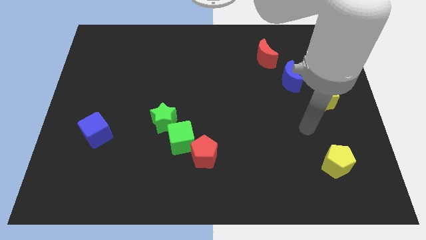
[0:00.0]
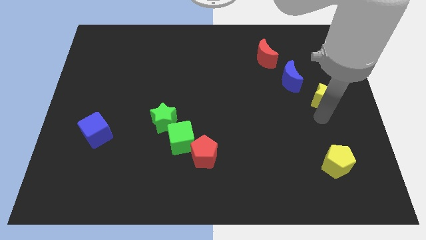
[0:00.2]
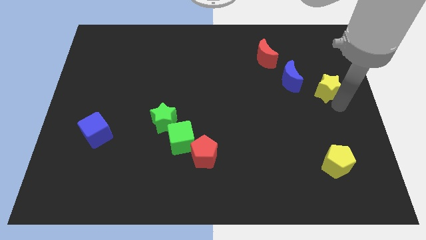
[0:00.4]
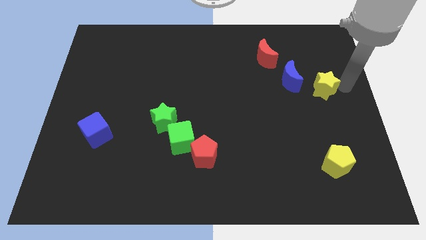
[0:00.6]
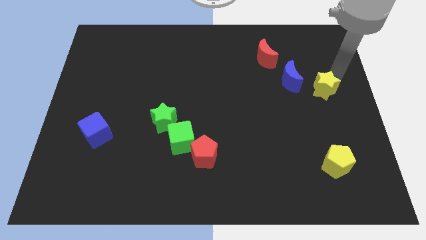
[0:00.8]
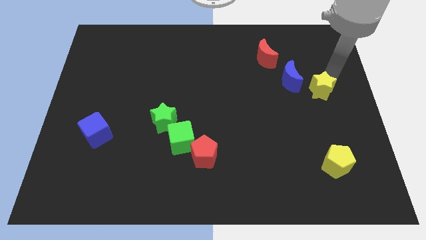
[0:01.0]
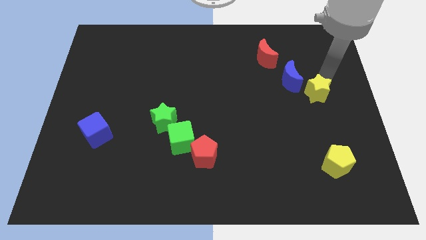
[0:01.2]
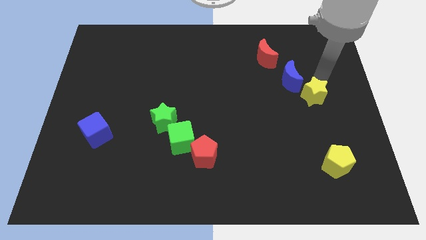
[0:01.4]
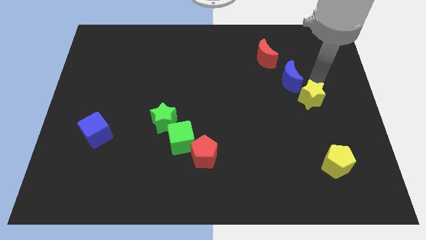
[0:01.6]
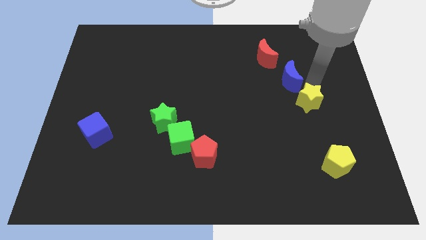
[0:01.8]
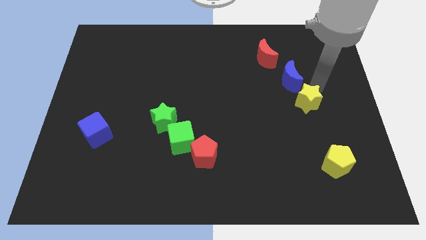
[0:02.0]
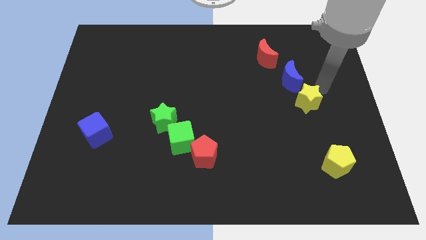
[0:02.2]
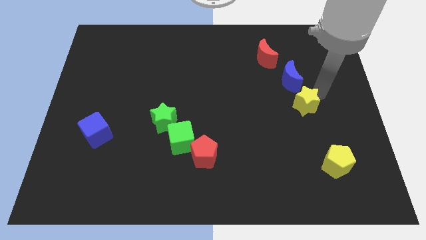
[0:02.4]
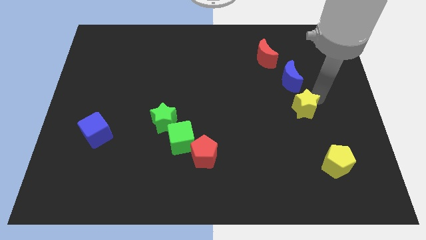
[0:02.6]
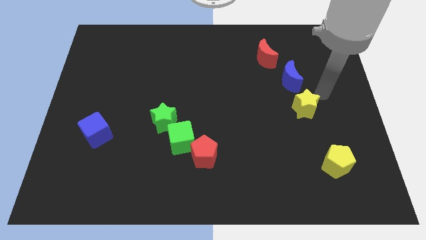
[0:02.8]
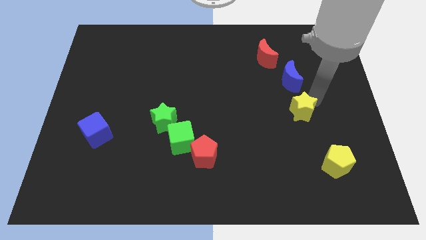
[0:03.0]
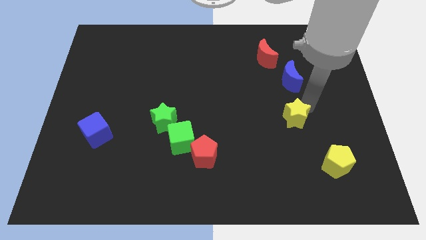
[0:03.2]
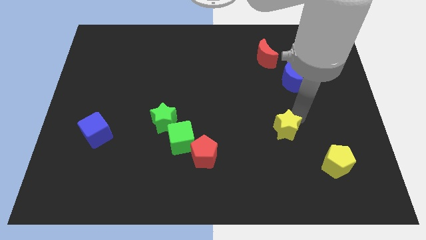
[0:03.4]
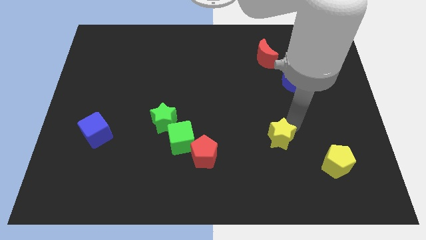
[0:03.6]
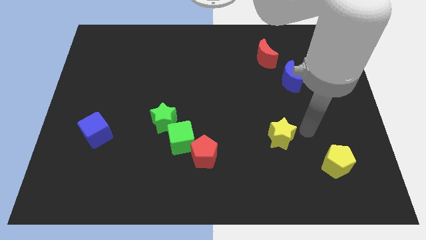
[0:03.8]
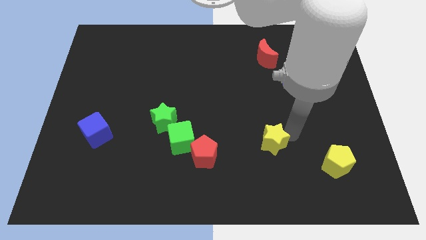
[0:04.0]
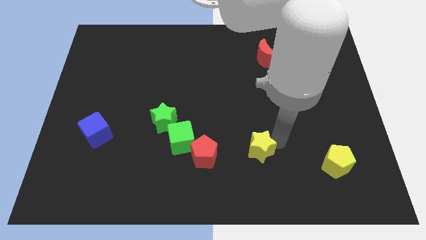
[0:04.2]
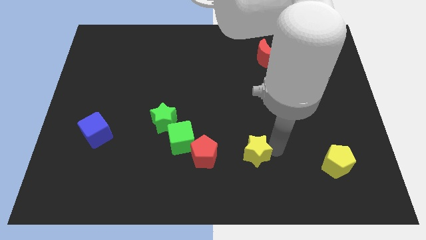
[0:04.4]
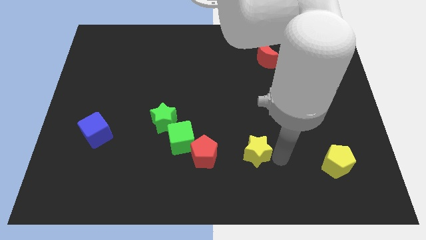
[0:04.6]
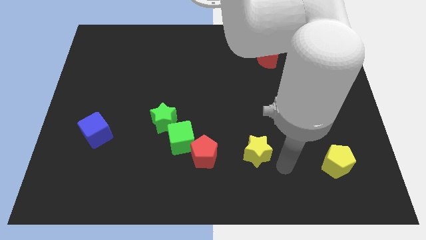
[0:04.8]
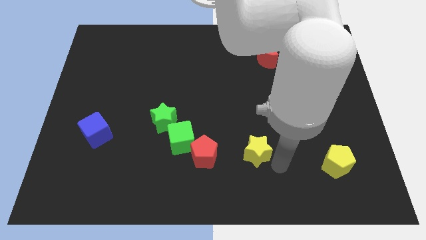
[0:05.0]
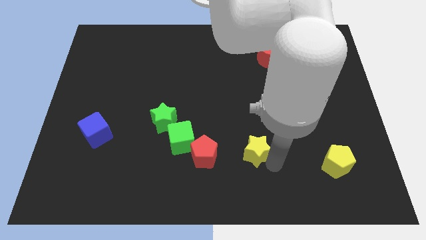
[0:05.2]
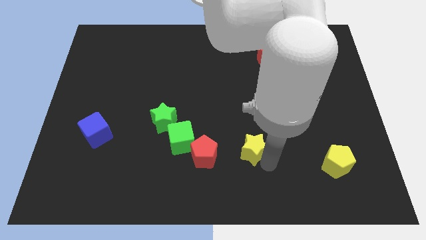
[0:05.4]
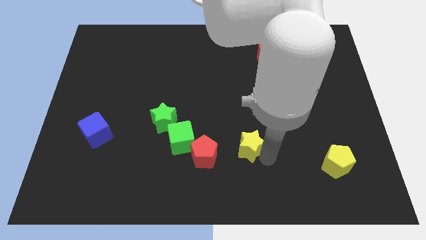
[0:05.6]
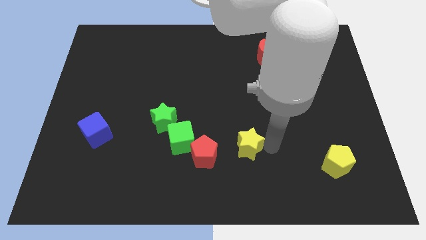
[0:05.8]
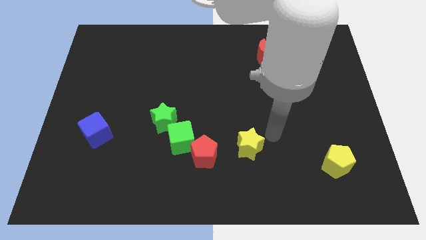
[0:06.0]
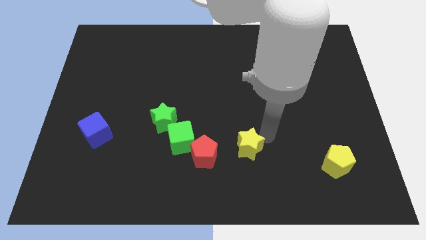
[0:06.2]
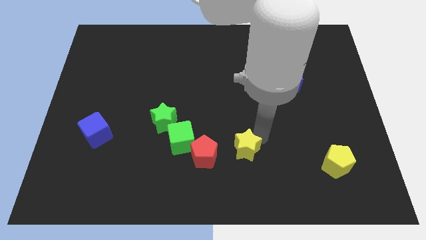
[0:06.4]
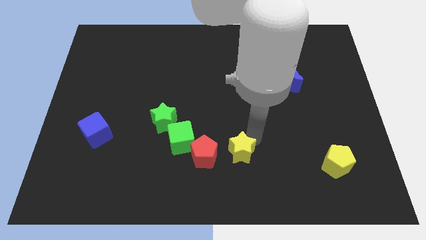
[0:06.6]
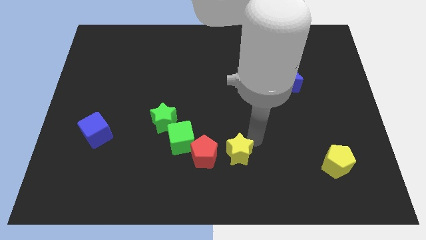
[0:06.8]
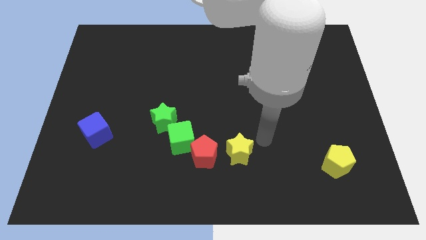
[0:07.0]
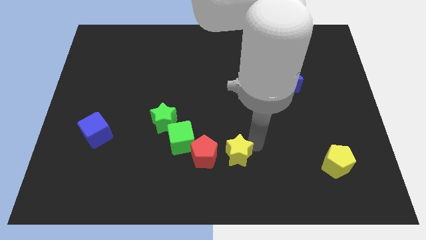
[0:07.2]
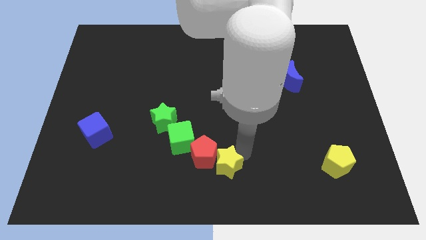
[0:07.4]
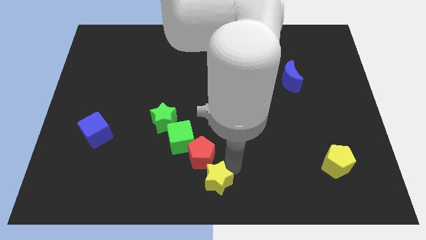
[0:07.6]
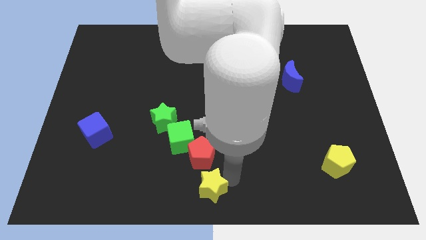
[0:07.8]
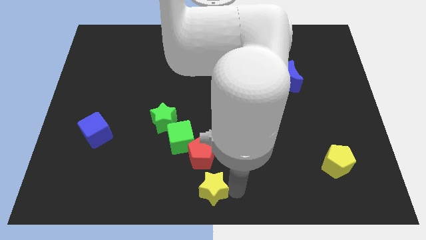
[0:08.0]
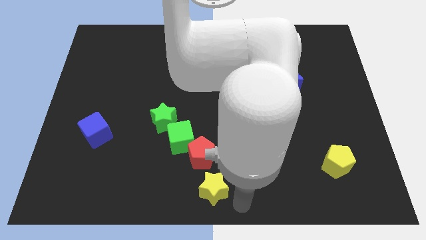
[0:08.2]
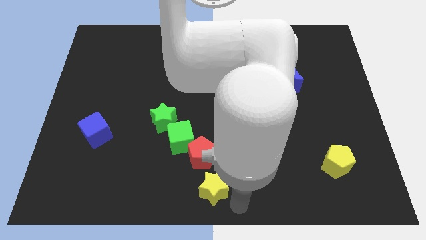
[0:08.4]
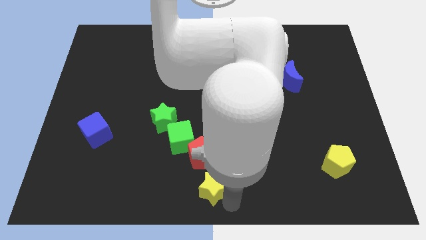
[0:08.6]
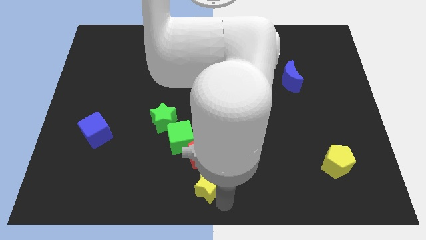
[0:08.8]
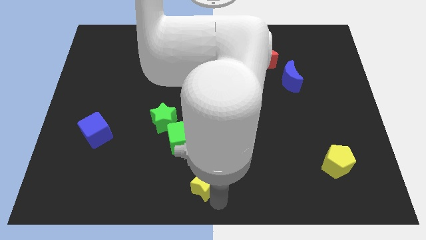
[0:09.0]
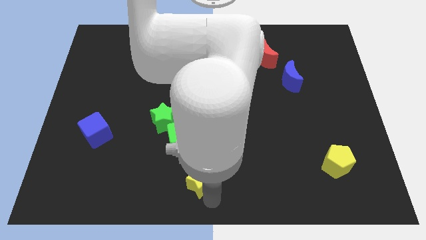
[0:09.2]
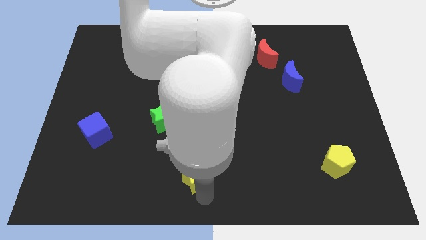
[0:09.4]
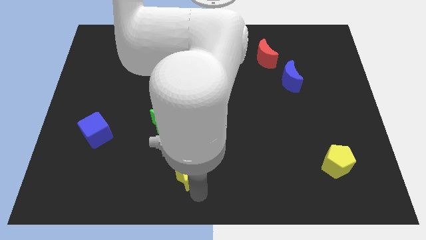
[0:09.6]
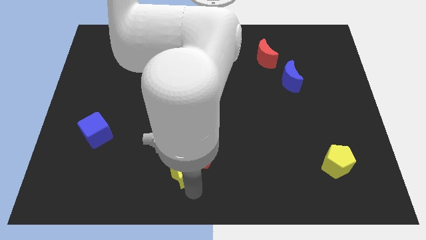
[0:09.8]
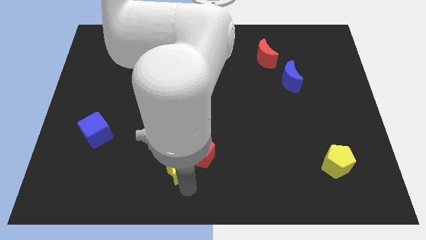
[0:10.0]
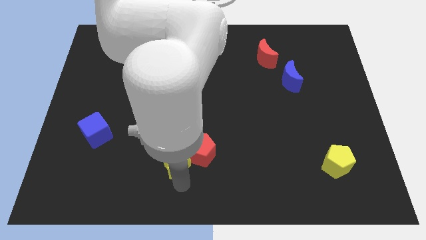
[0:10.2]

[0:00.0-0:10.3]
slide the yellow star diagonally down and to the left of the green cube

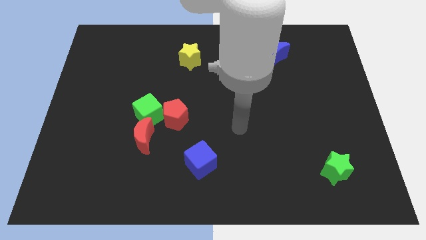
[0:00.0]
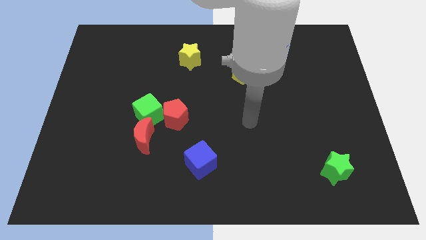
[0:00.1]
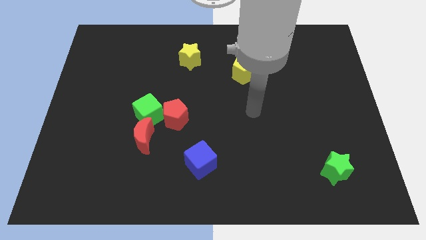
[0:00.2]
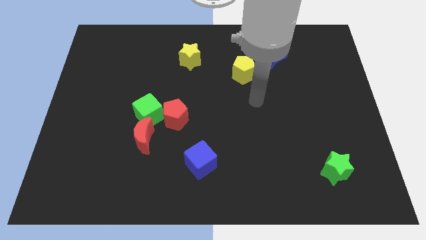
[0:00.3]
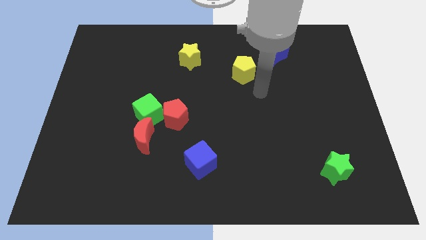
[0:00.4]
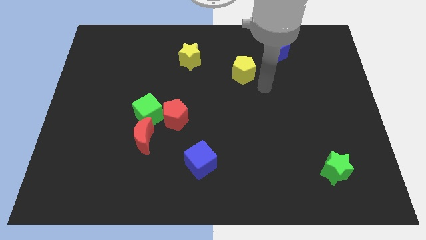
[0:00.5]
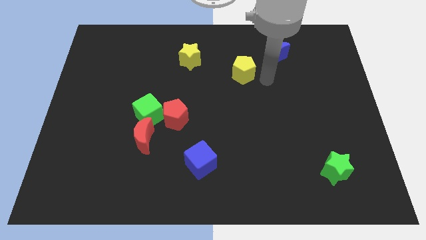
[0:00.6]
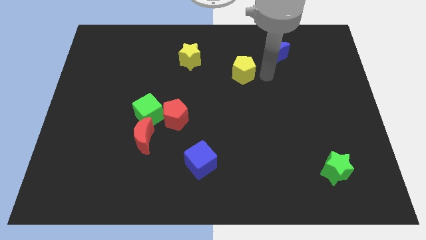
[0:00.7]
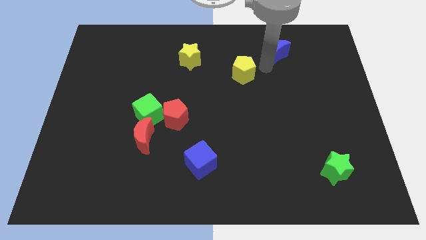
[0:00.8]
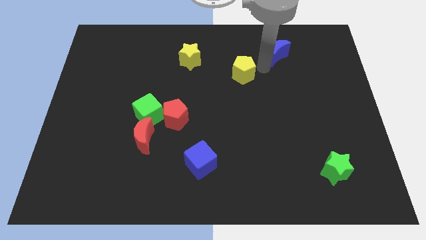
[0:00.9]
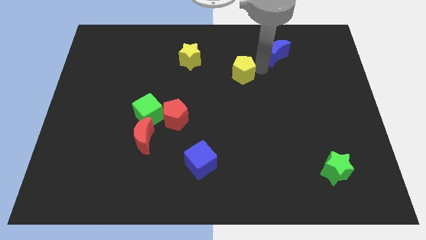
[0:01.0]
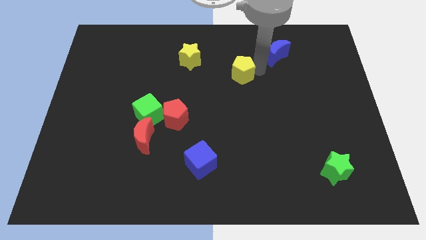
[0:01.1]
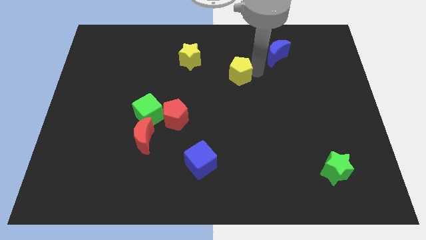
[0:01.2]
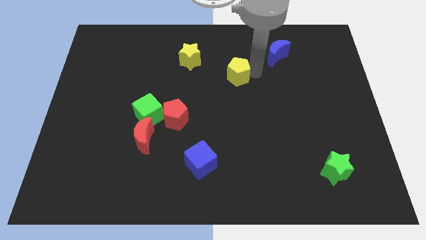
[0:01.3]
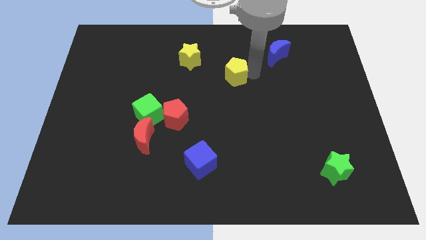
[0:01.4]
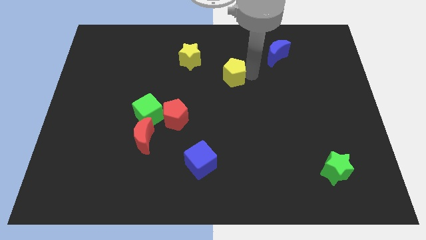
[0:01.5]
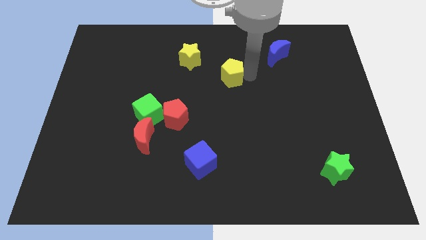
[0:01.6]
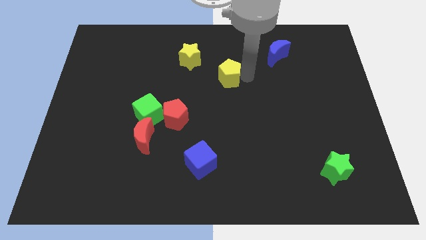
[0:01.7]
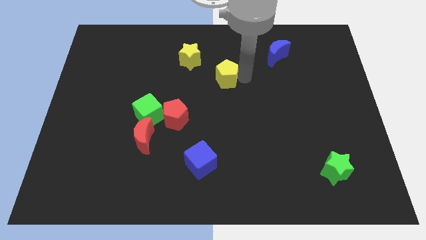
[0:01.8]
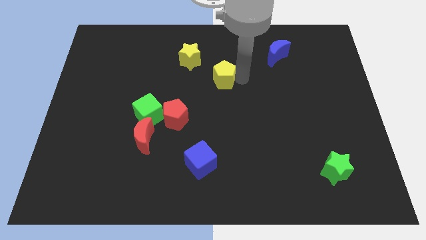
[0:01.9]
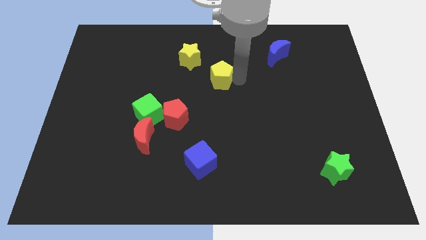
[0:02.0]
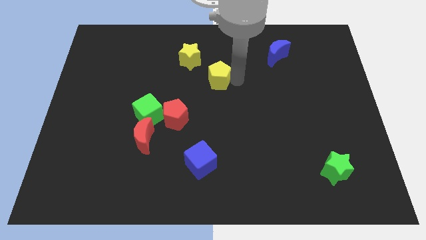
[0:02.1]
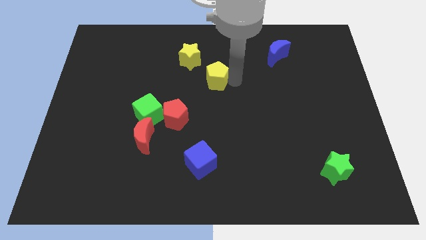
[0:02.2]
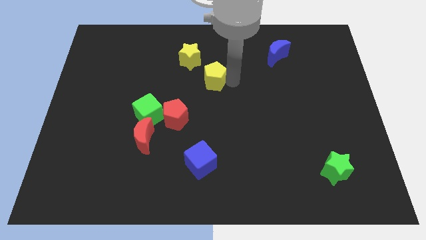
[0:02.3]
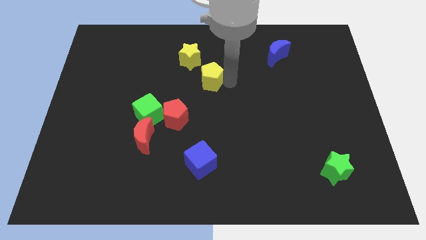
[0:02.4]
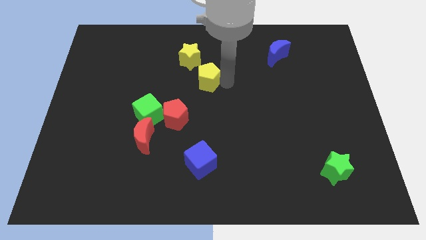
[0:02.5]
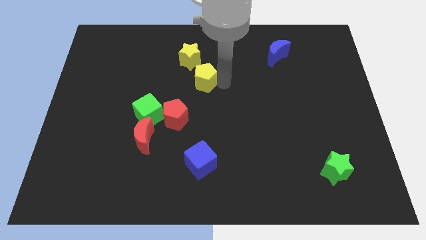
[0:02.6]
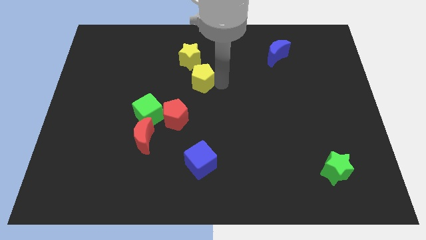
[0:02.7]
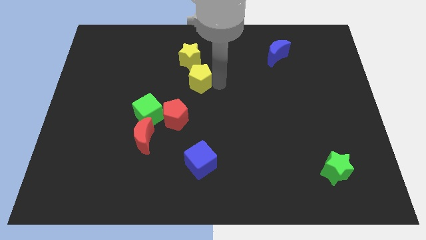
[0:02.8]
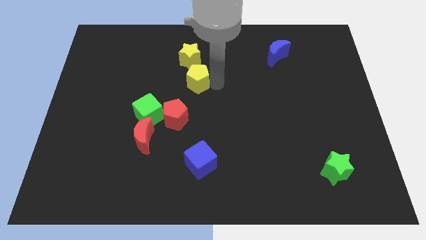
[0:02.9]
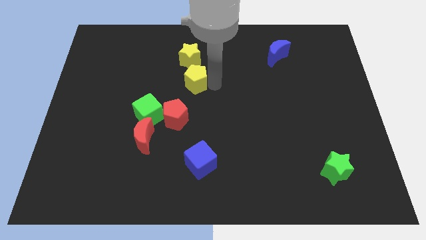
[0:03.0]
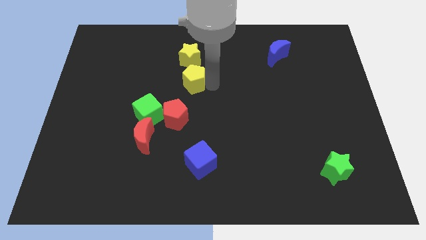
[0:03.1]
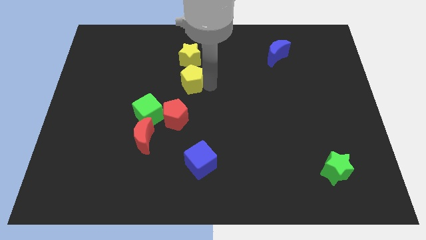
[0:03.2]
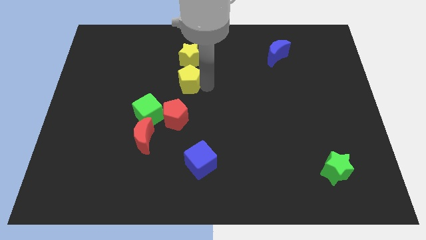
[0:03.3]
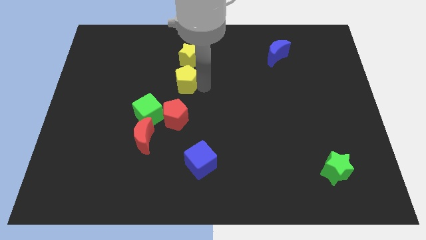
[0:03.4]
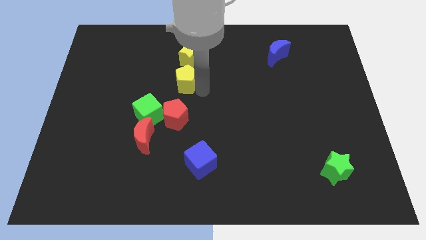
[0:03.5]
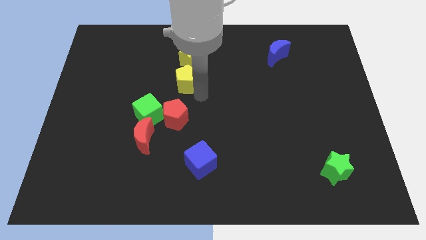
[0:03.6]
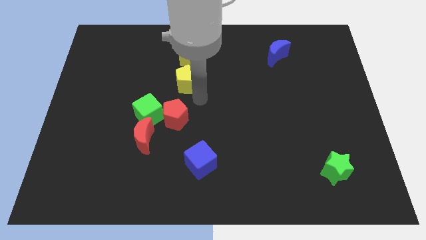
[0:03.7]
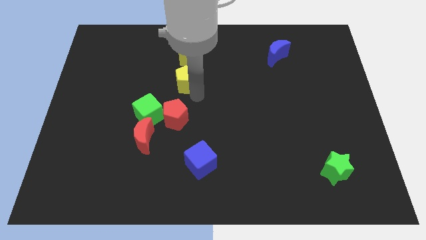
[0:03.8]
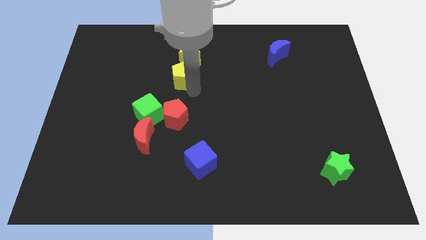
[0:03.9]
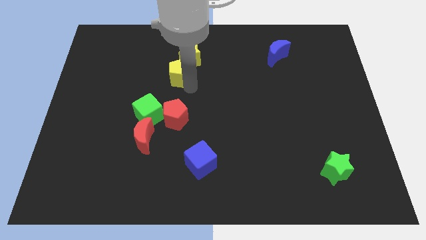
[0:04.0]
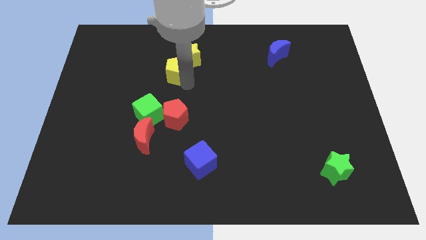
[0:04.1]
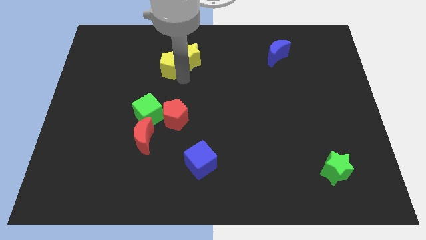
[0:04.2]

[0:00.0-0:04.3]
slide the yellow pentagon to the left side of the yellow star
